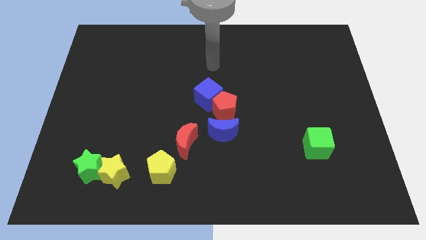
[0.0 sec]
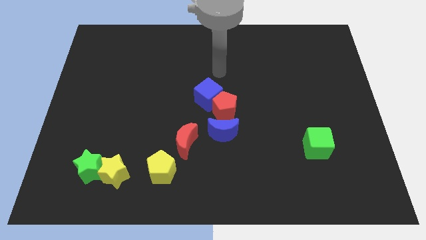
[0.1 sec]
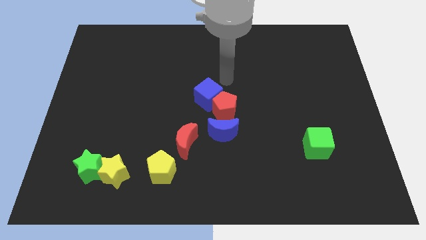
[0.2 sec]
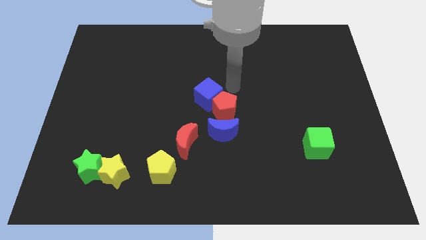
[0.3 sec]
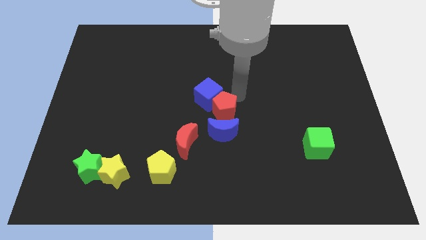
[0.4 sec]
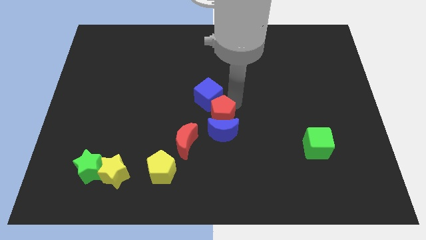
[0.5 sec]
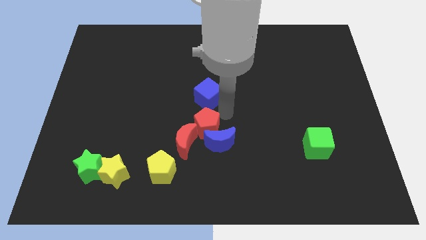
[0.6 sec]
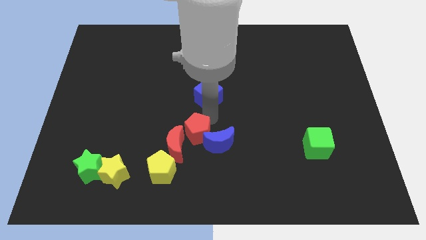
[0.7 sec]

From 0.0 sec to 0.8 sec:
pull the blue cube apart from the red pentagon

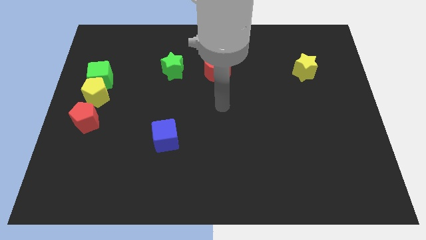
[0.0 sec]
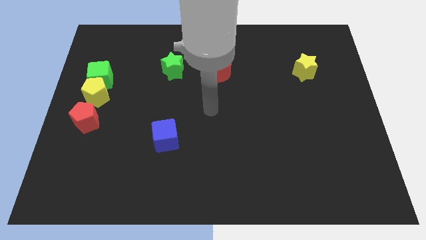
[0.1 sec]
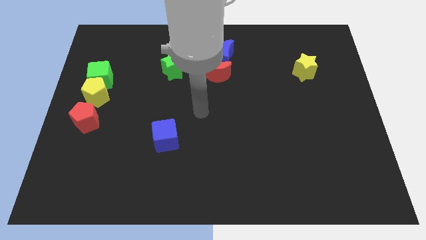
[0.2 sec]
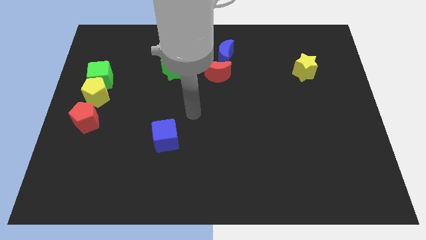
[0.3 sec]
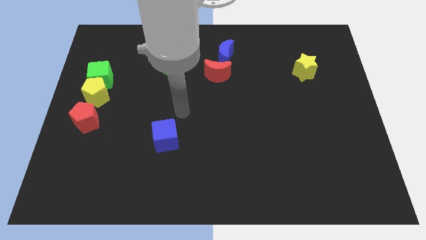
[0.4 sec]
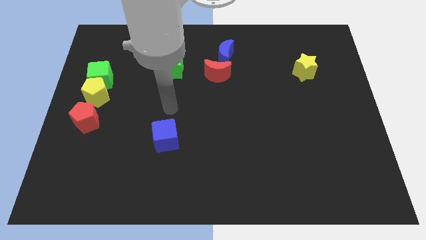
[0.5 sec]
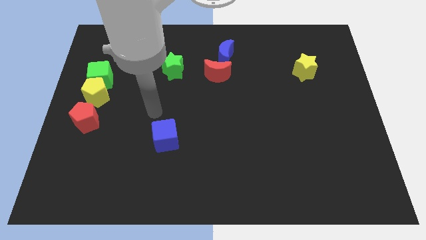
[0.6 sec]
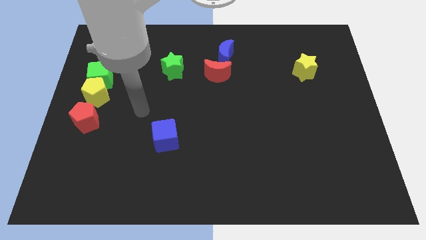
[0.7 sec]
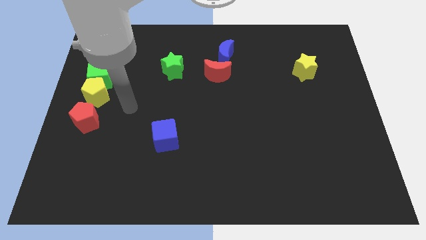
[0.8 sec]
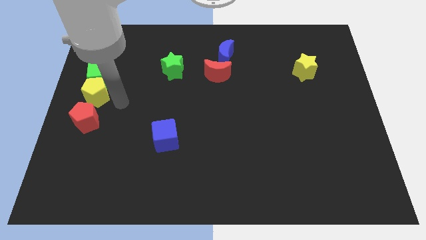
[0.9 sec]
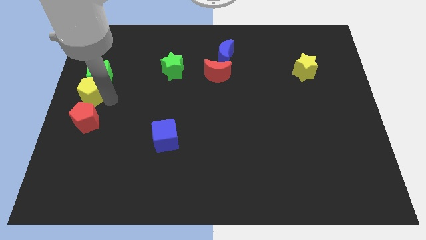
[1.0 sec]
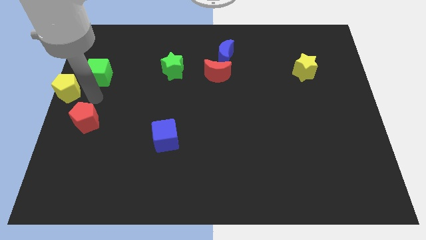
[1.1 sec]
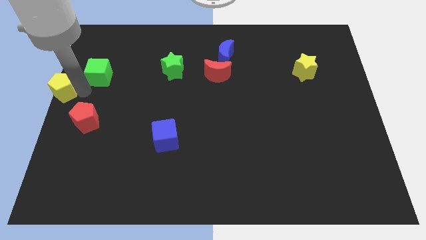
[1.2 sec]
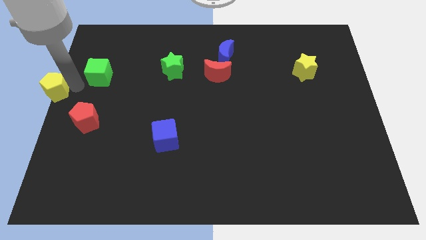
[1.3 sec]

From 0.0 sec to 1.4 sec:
move the green cube away from the yellow pentagon

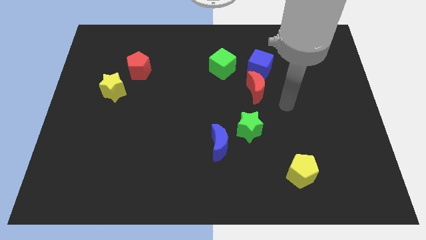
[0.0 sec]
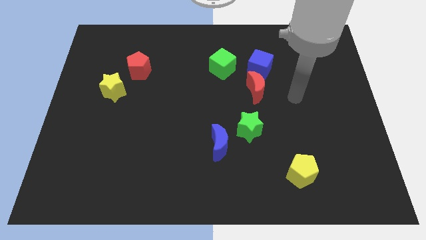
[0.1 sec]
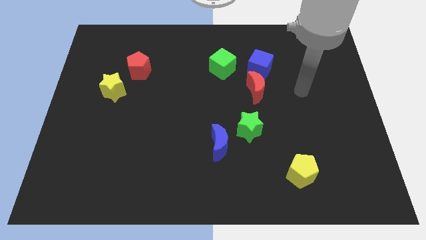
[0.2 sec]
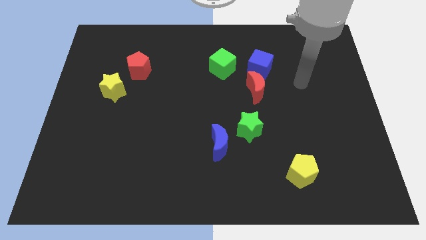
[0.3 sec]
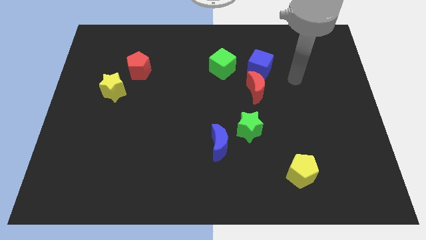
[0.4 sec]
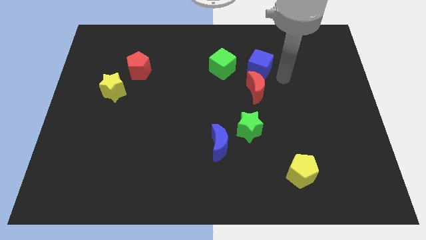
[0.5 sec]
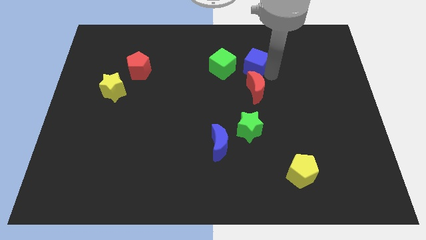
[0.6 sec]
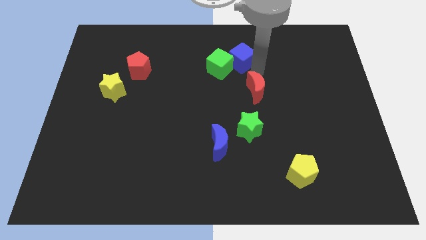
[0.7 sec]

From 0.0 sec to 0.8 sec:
pull the red moon apart from the blue cube

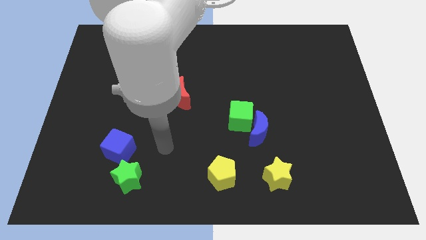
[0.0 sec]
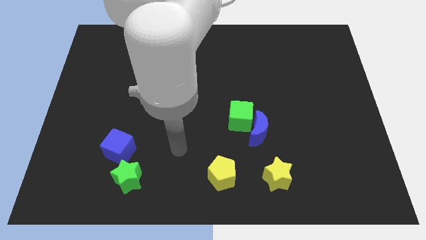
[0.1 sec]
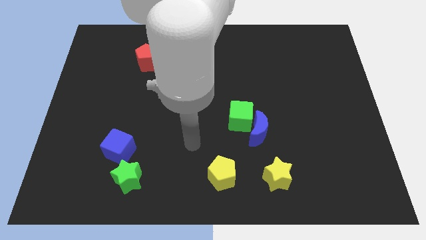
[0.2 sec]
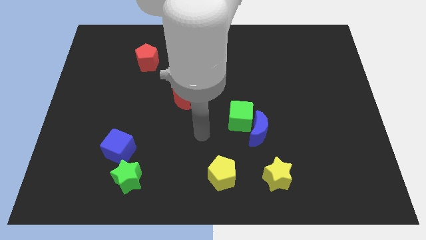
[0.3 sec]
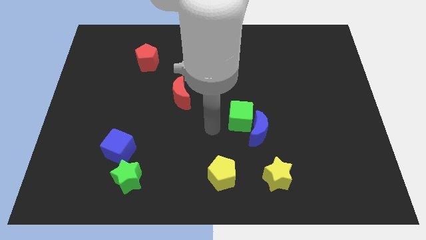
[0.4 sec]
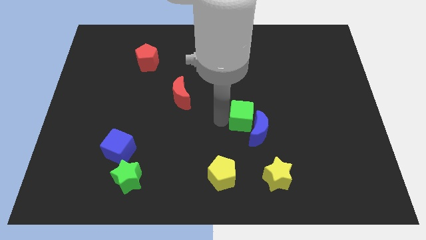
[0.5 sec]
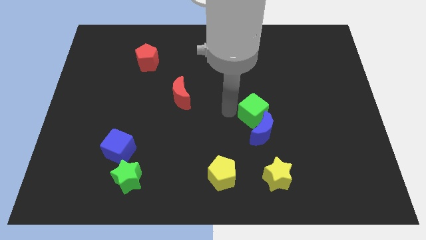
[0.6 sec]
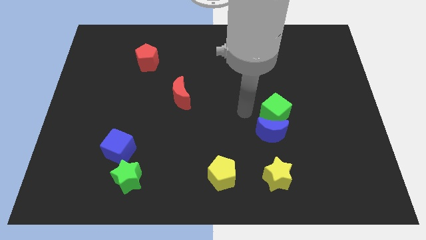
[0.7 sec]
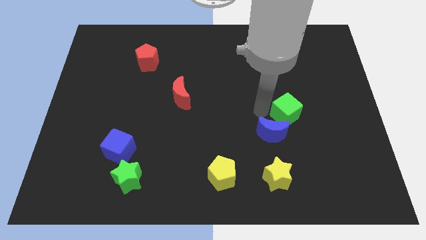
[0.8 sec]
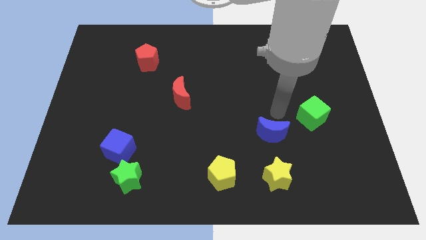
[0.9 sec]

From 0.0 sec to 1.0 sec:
separate the blue moon from the green cube

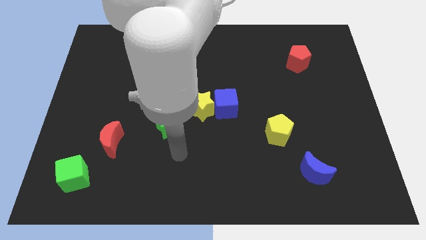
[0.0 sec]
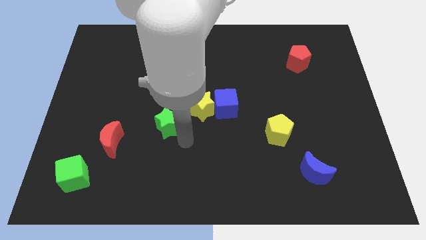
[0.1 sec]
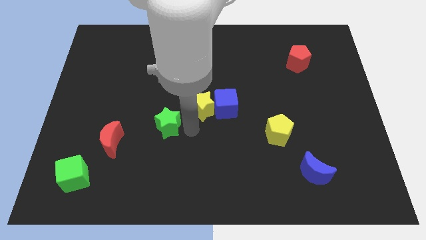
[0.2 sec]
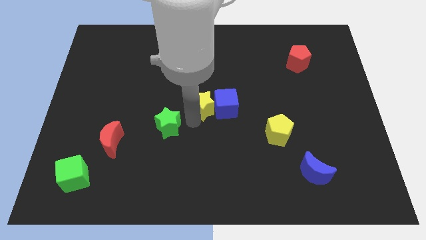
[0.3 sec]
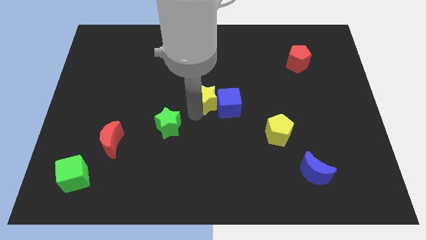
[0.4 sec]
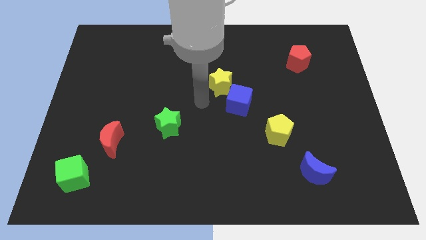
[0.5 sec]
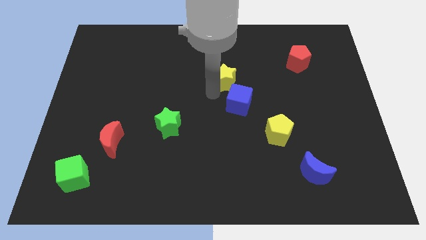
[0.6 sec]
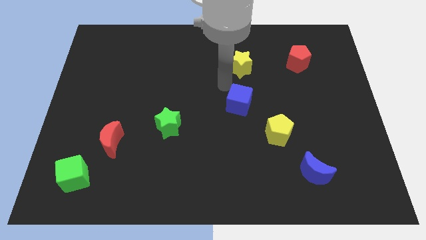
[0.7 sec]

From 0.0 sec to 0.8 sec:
pull the blue cube apart from the yellow star

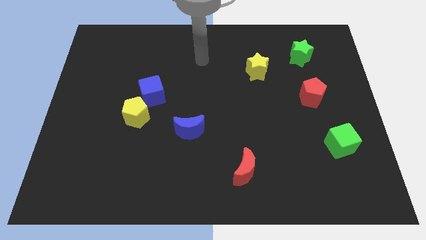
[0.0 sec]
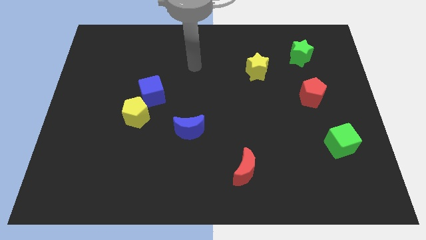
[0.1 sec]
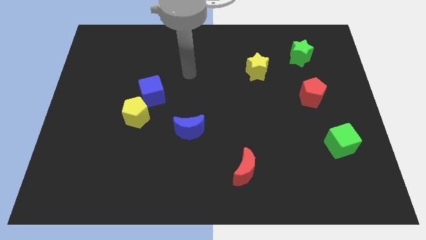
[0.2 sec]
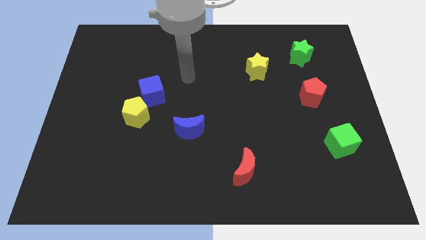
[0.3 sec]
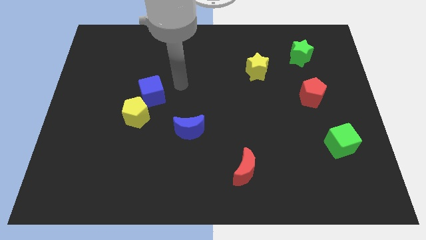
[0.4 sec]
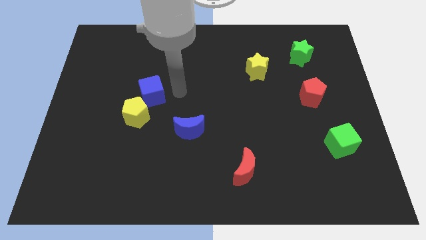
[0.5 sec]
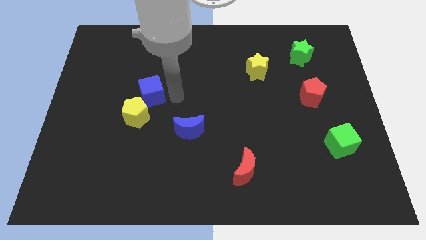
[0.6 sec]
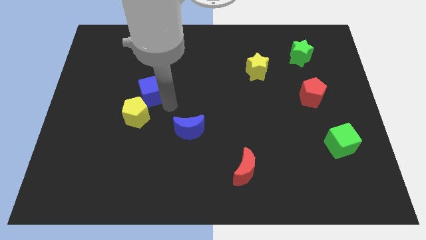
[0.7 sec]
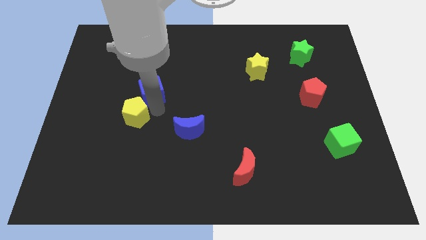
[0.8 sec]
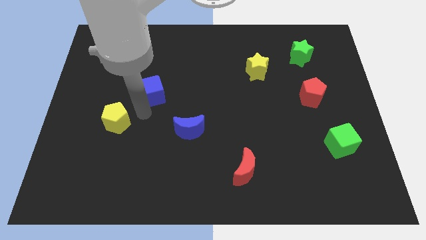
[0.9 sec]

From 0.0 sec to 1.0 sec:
pull the blue cube apart from the yellow pentagon

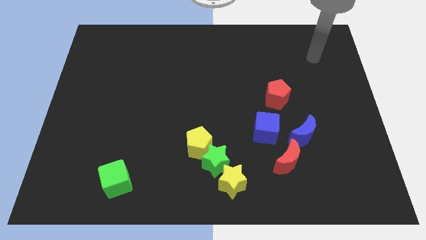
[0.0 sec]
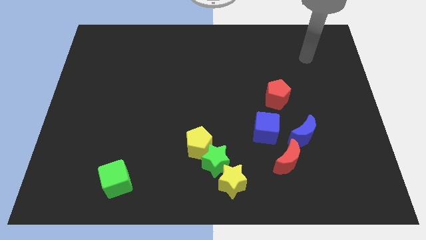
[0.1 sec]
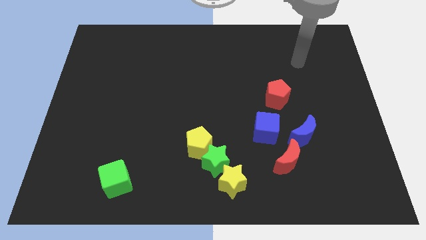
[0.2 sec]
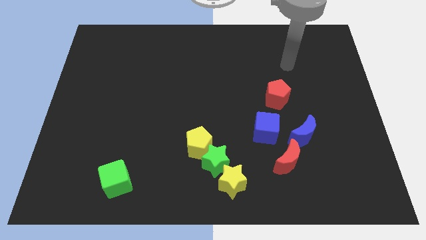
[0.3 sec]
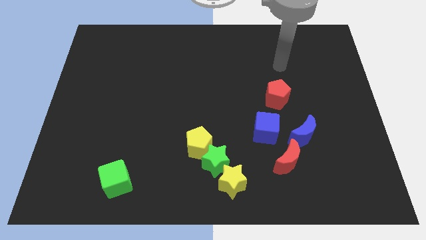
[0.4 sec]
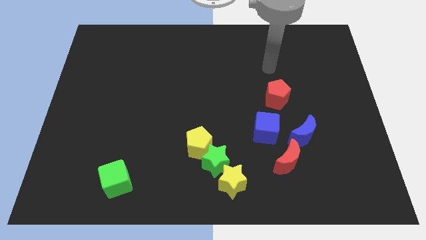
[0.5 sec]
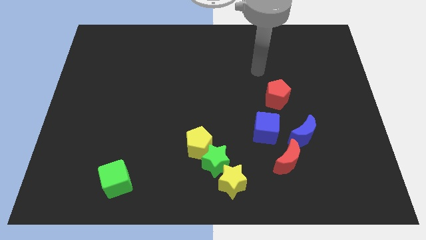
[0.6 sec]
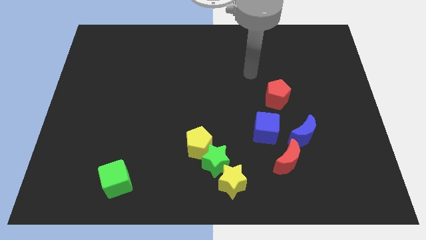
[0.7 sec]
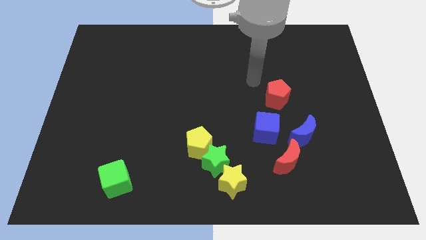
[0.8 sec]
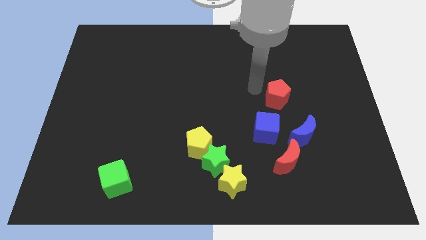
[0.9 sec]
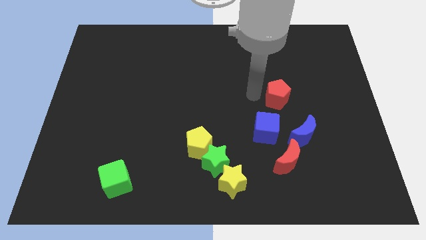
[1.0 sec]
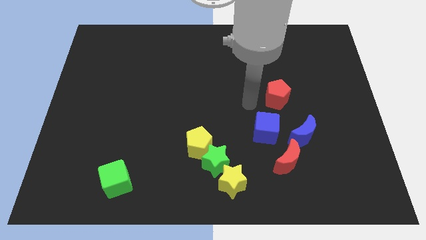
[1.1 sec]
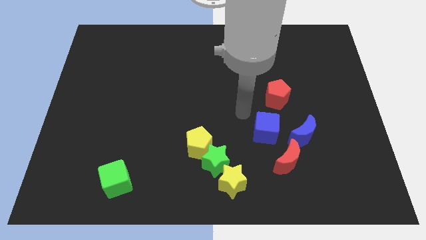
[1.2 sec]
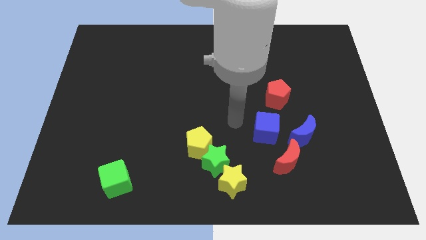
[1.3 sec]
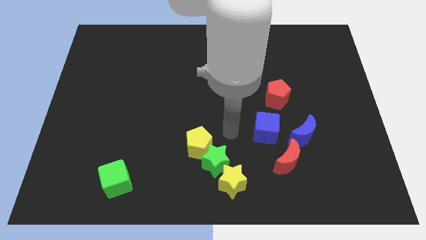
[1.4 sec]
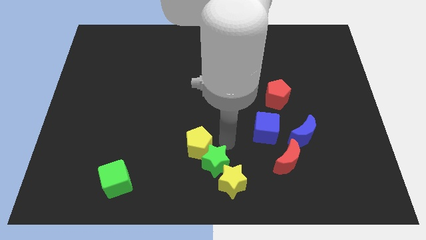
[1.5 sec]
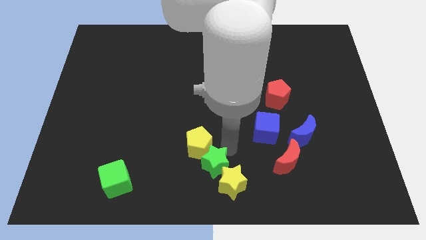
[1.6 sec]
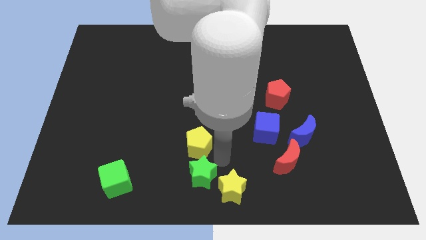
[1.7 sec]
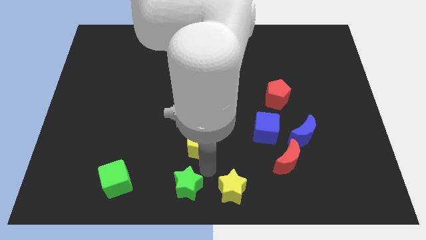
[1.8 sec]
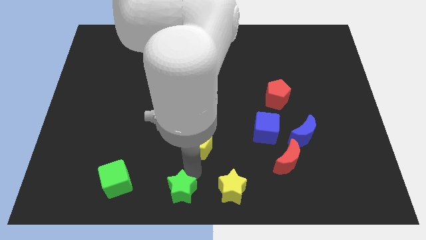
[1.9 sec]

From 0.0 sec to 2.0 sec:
separate the yellow pentagon from the green star

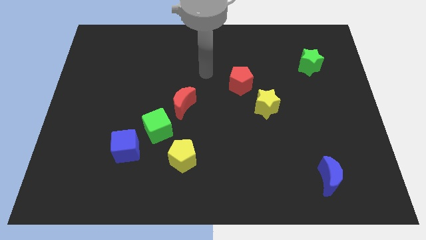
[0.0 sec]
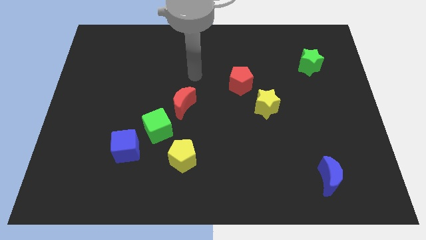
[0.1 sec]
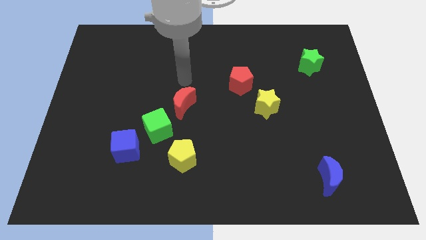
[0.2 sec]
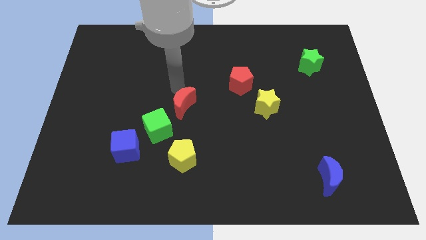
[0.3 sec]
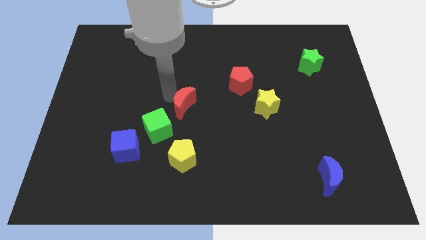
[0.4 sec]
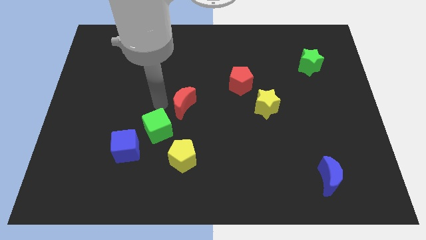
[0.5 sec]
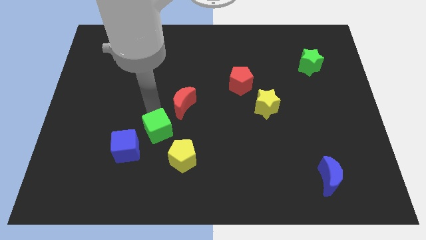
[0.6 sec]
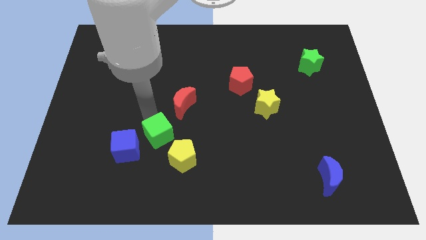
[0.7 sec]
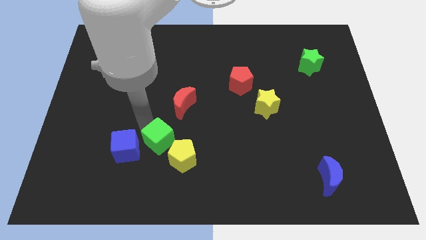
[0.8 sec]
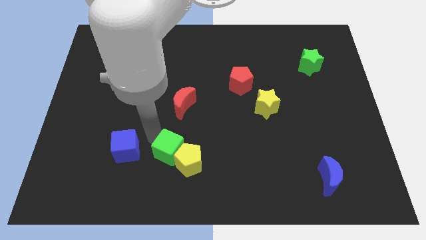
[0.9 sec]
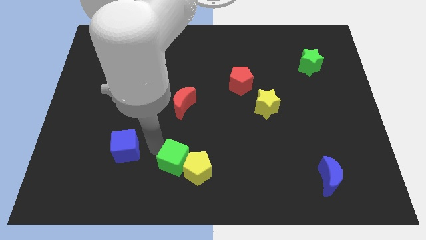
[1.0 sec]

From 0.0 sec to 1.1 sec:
pull the blue cube apart from the green cube

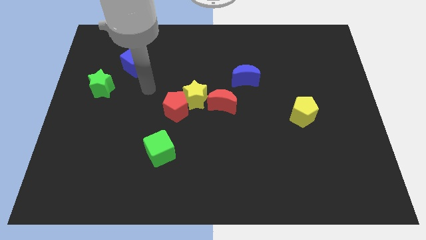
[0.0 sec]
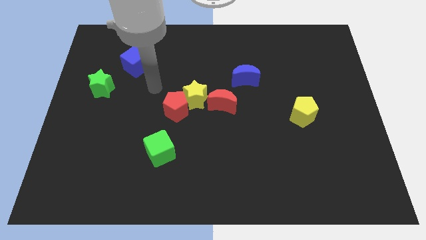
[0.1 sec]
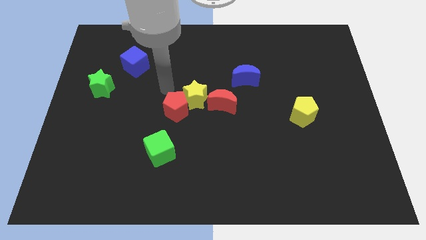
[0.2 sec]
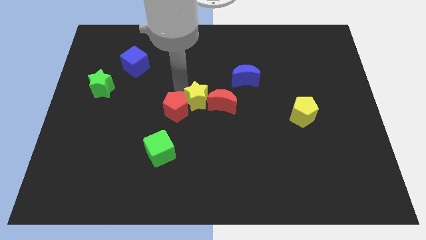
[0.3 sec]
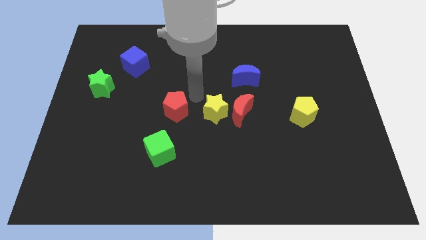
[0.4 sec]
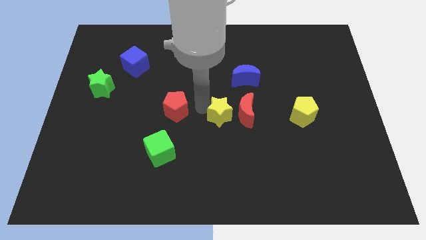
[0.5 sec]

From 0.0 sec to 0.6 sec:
move the red pentagon away from the yellow star
